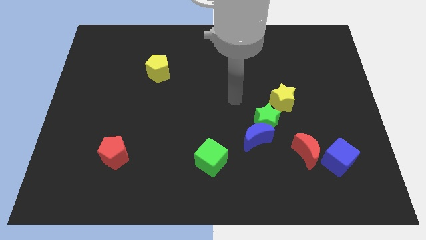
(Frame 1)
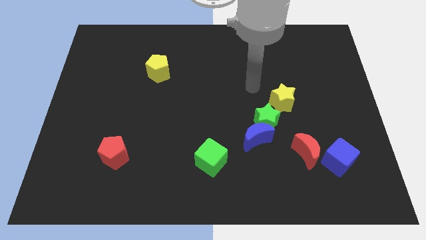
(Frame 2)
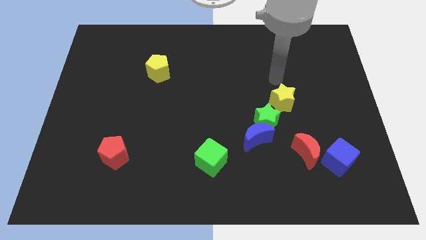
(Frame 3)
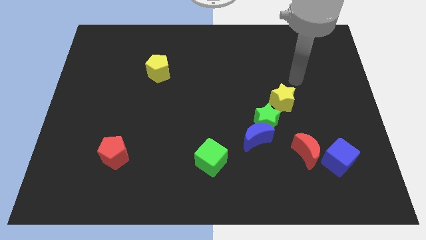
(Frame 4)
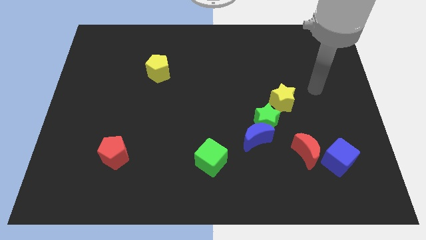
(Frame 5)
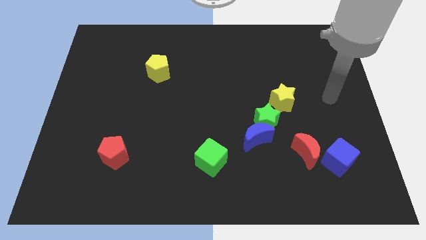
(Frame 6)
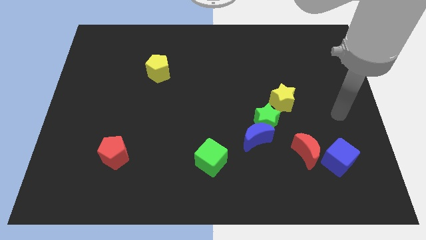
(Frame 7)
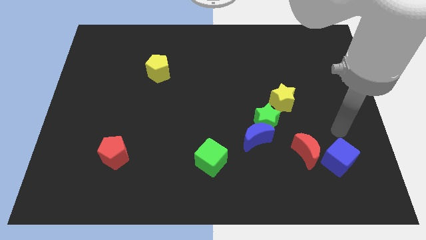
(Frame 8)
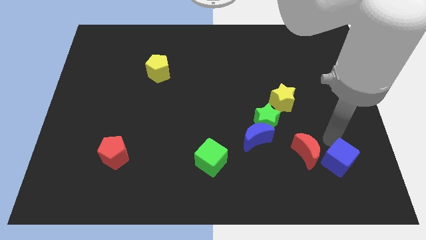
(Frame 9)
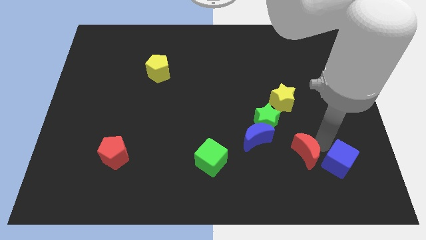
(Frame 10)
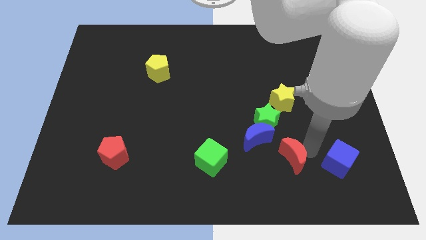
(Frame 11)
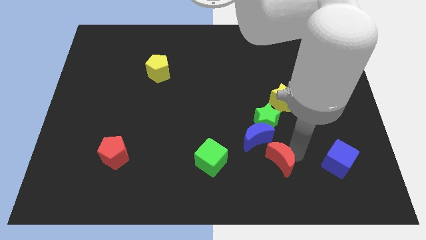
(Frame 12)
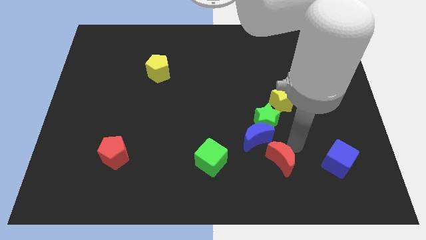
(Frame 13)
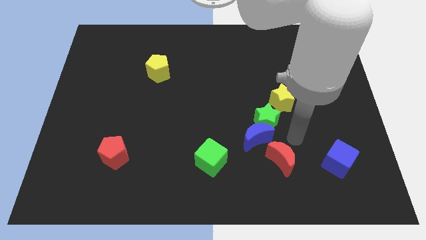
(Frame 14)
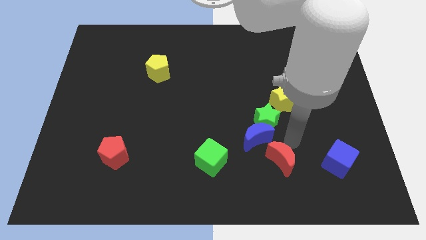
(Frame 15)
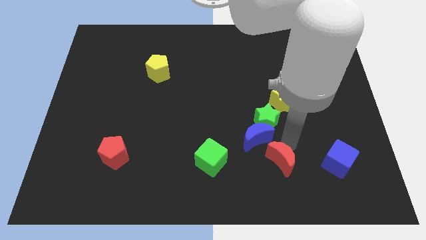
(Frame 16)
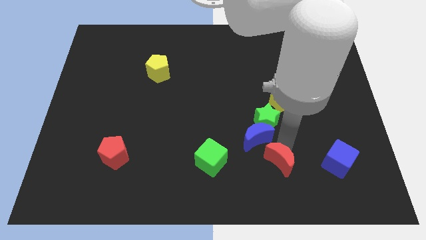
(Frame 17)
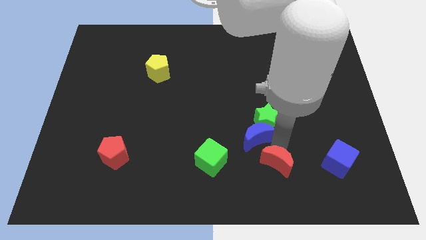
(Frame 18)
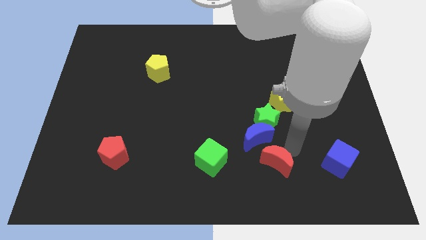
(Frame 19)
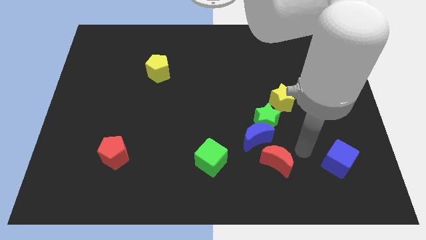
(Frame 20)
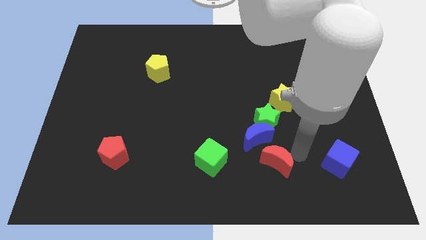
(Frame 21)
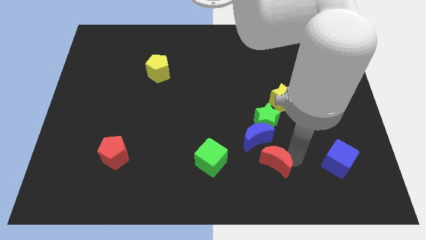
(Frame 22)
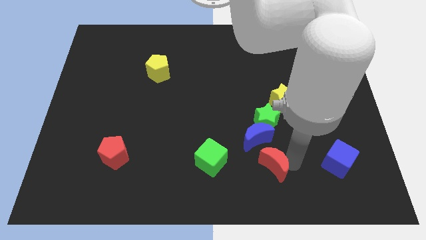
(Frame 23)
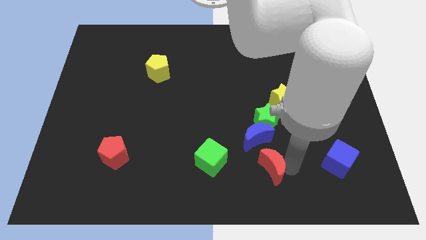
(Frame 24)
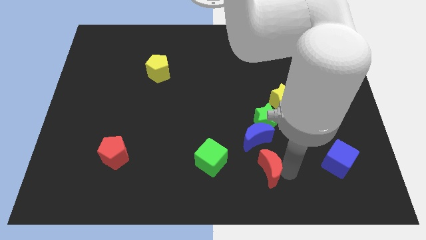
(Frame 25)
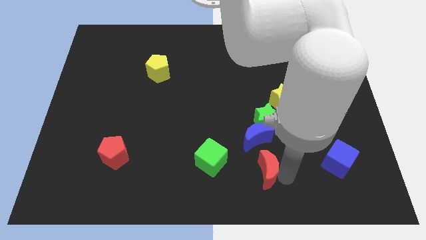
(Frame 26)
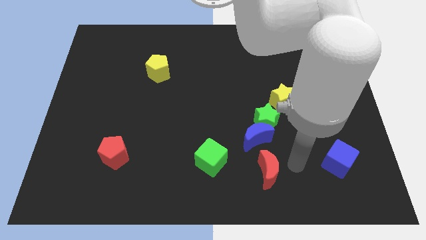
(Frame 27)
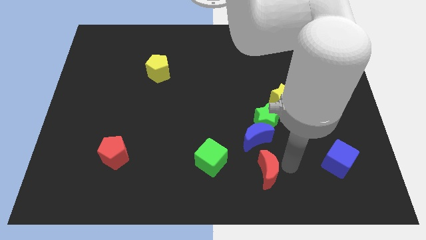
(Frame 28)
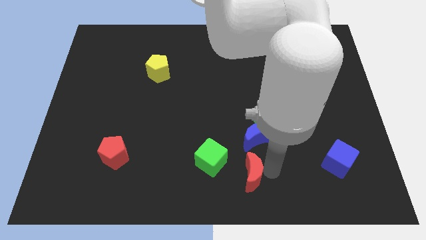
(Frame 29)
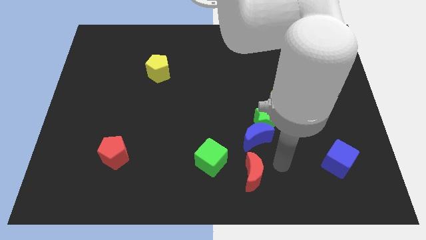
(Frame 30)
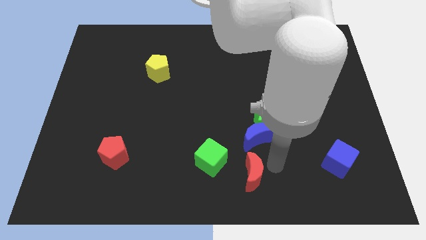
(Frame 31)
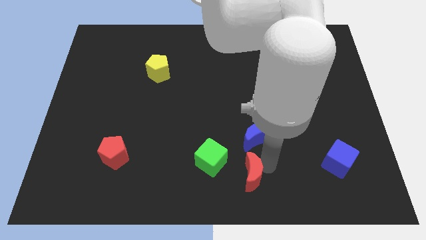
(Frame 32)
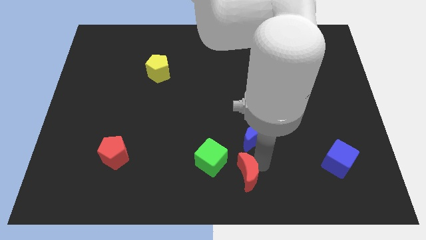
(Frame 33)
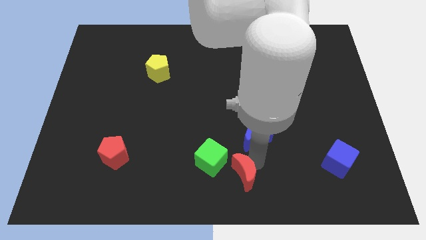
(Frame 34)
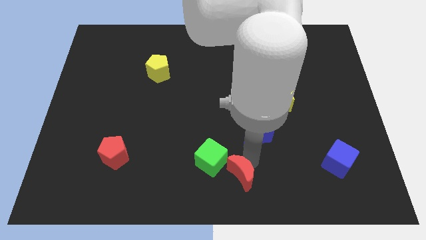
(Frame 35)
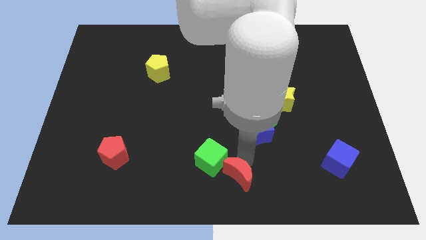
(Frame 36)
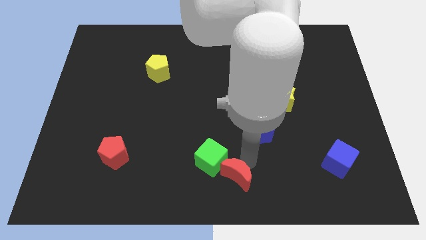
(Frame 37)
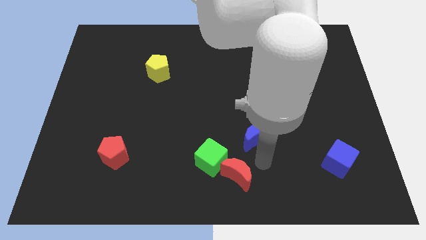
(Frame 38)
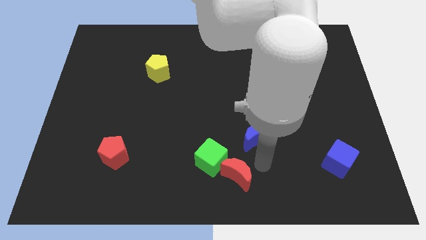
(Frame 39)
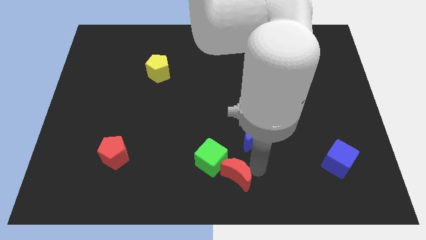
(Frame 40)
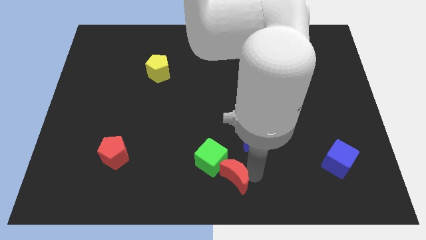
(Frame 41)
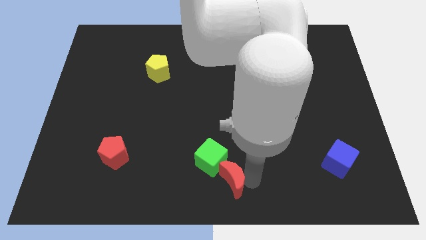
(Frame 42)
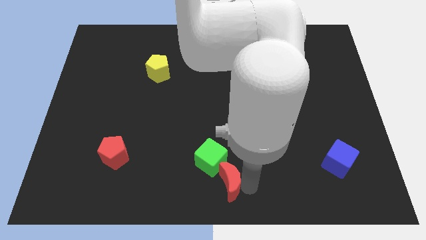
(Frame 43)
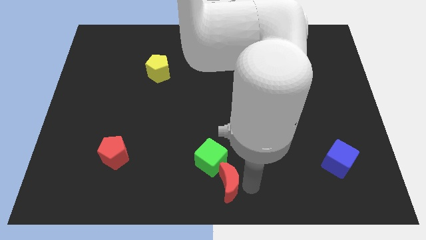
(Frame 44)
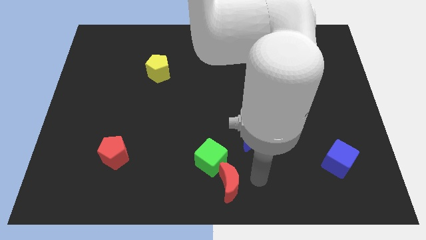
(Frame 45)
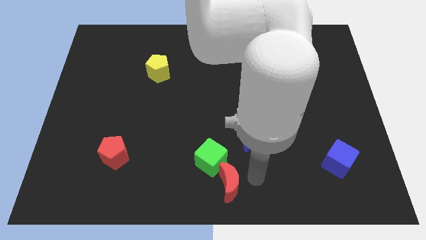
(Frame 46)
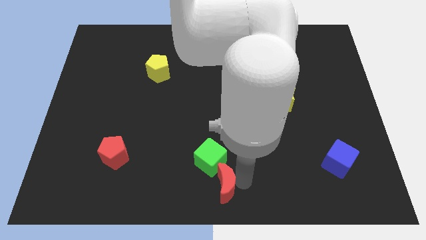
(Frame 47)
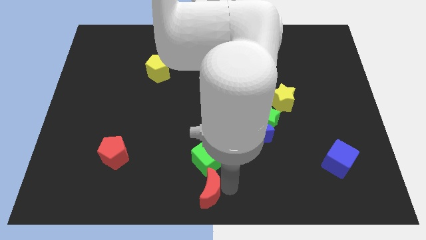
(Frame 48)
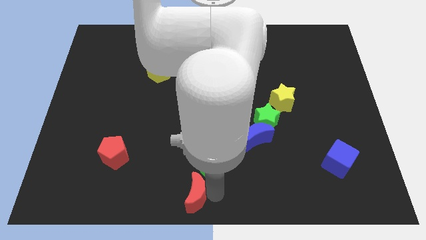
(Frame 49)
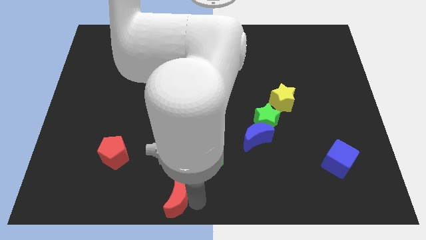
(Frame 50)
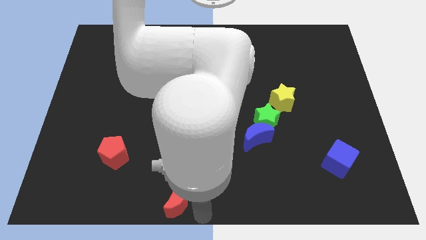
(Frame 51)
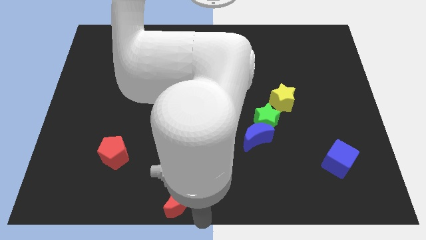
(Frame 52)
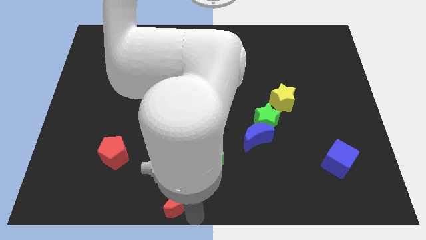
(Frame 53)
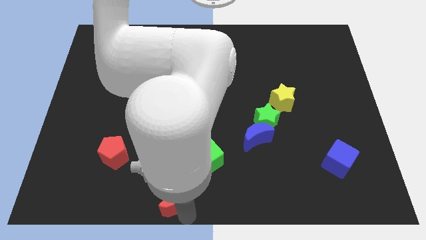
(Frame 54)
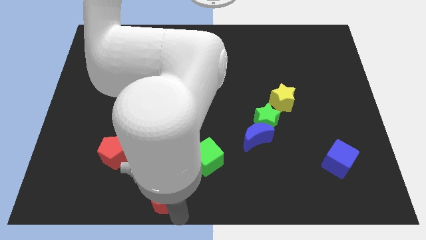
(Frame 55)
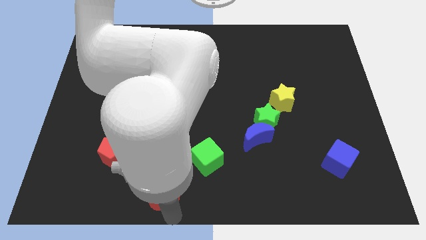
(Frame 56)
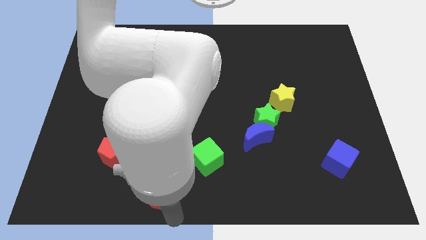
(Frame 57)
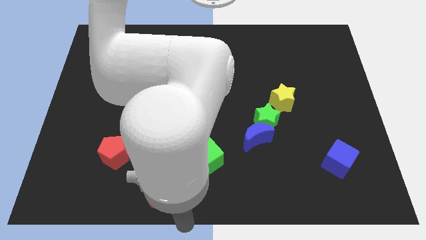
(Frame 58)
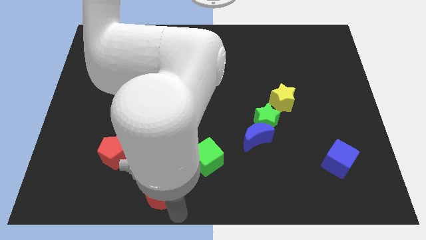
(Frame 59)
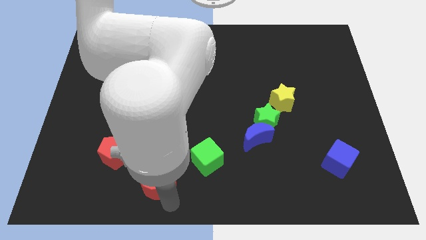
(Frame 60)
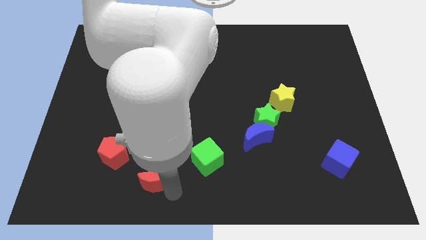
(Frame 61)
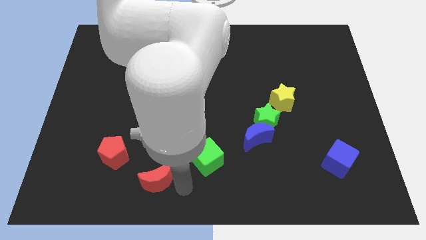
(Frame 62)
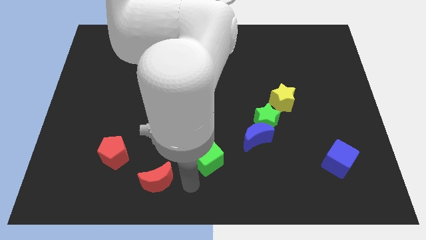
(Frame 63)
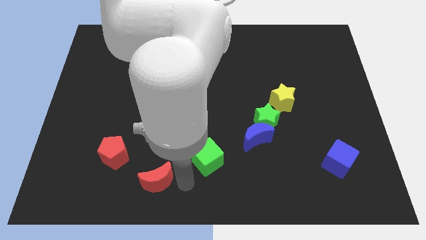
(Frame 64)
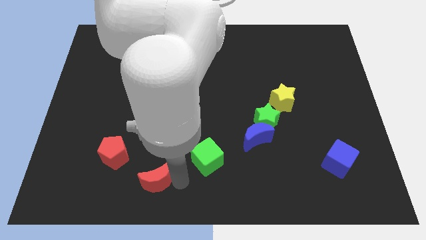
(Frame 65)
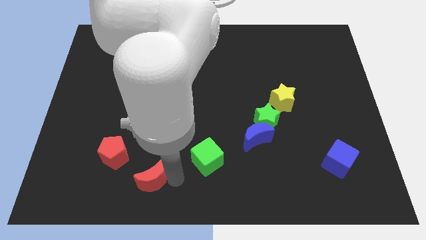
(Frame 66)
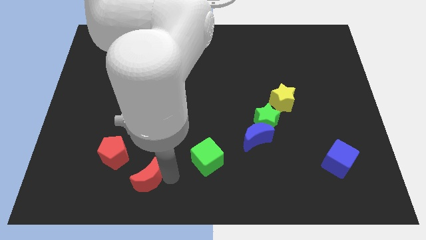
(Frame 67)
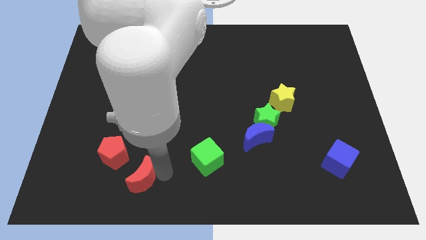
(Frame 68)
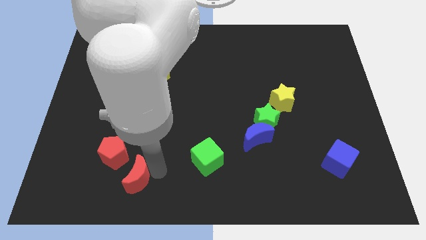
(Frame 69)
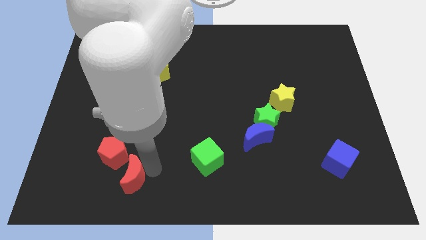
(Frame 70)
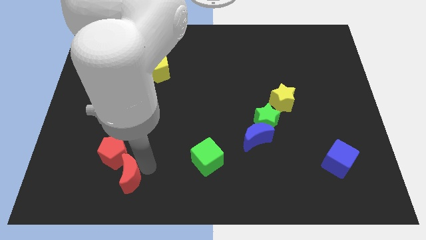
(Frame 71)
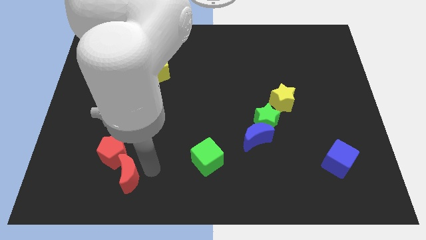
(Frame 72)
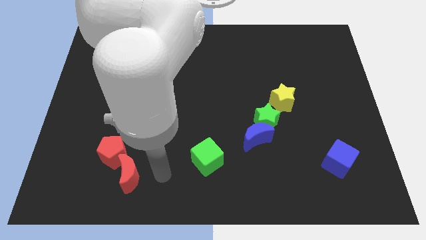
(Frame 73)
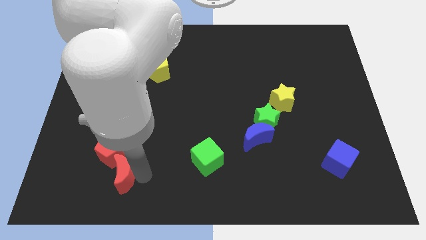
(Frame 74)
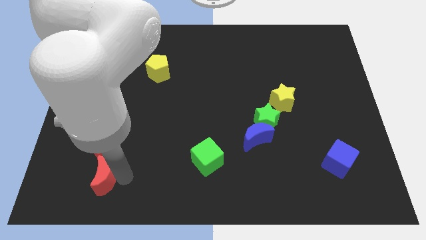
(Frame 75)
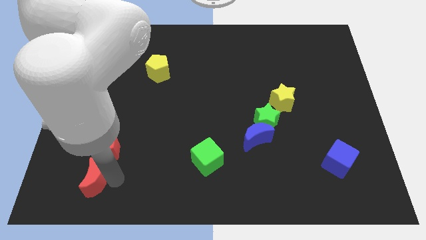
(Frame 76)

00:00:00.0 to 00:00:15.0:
push the red moon to the bottom left side of the red pentagon

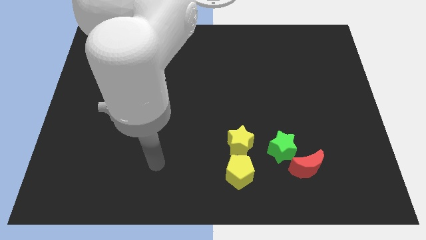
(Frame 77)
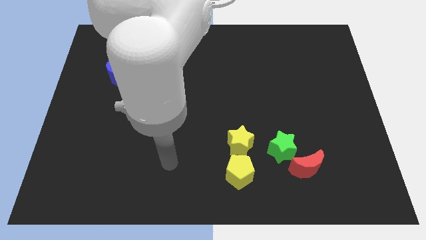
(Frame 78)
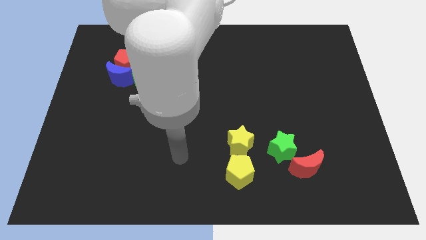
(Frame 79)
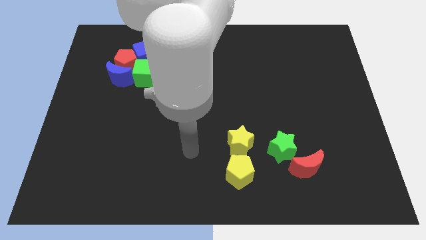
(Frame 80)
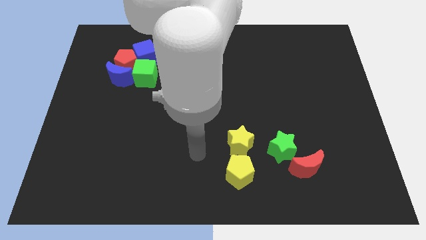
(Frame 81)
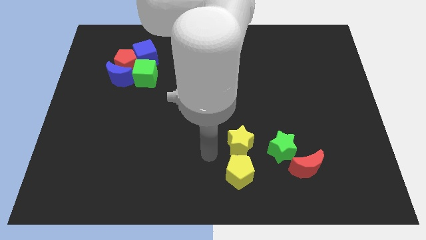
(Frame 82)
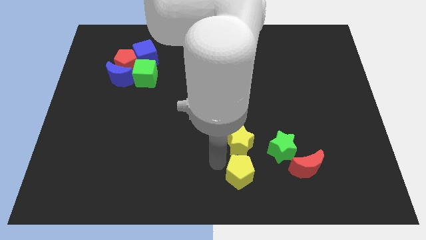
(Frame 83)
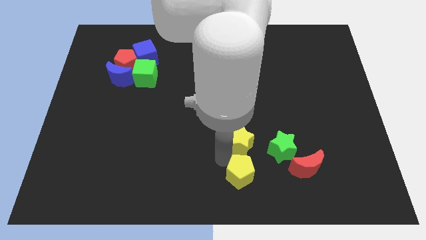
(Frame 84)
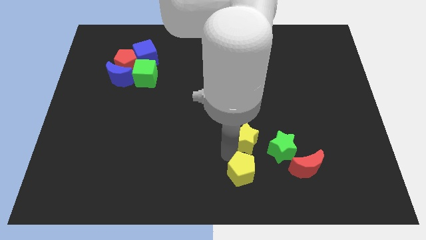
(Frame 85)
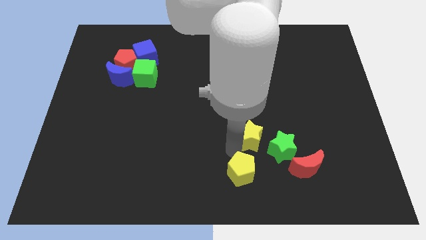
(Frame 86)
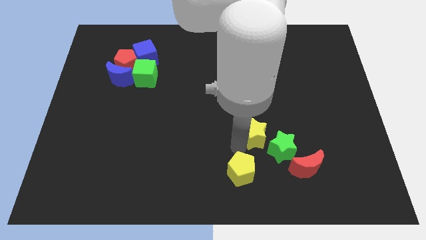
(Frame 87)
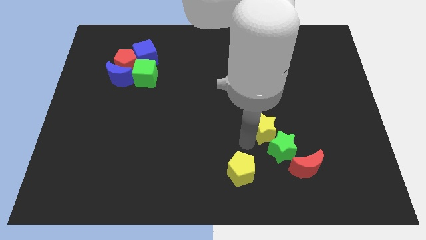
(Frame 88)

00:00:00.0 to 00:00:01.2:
move the yellow star above the green star
